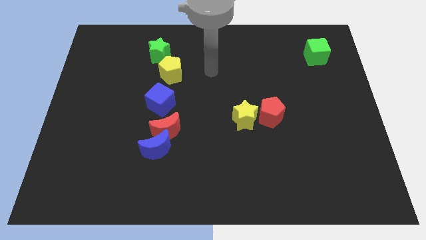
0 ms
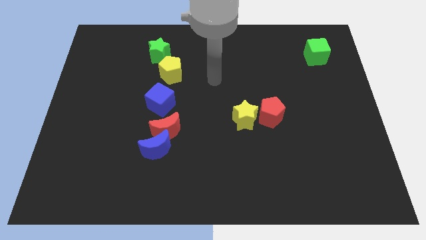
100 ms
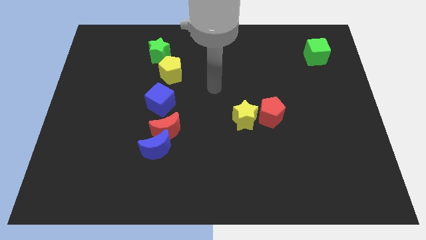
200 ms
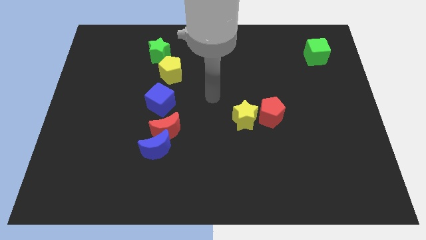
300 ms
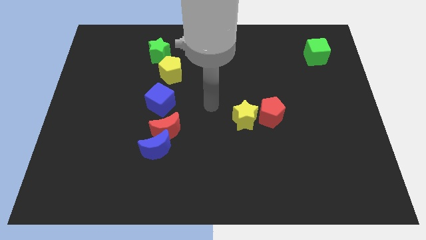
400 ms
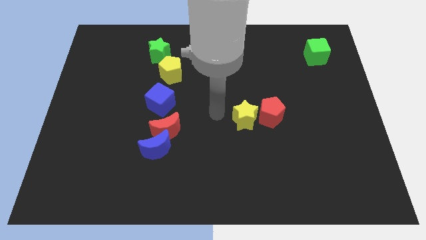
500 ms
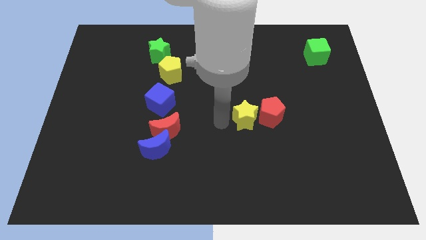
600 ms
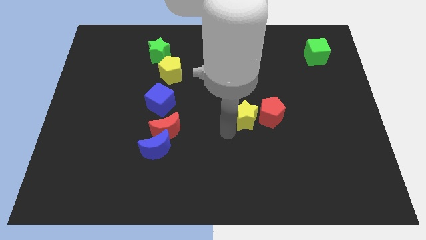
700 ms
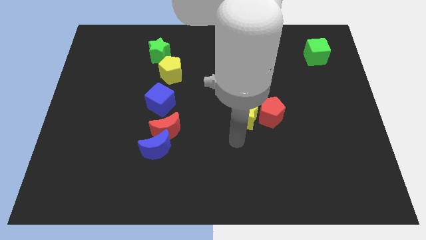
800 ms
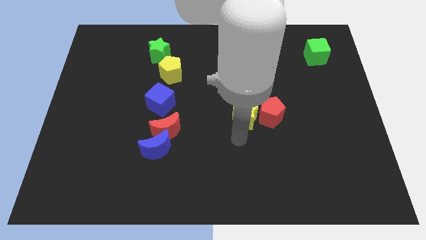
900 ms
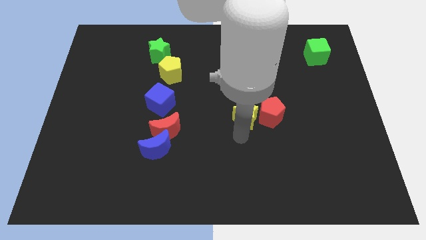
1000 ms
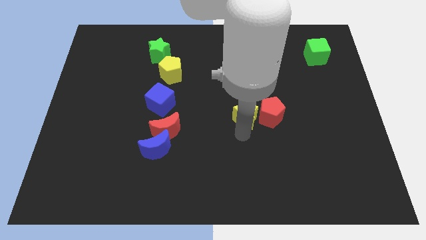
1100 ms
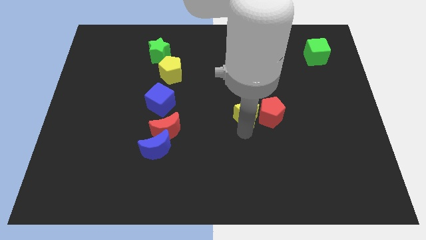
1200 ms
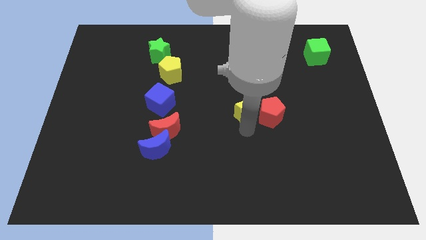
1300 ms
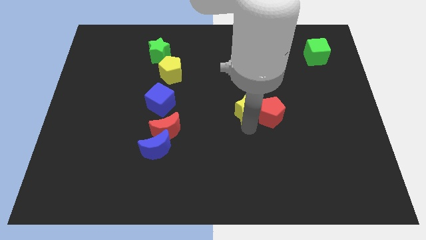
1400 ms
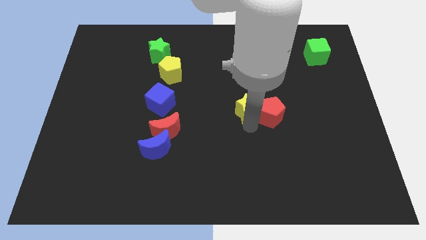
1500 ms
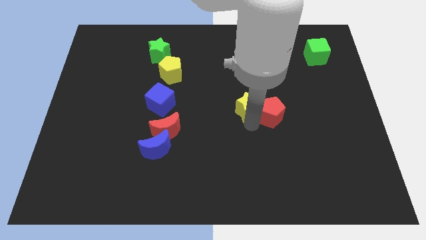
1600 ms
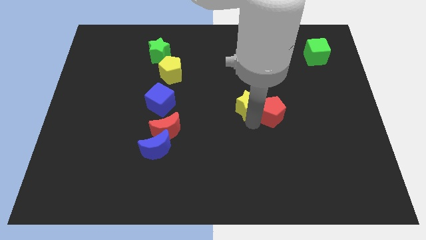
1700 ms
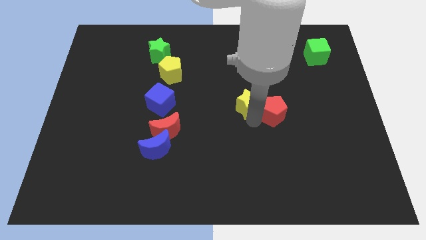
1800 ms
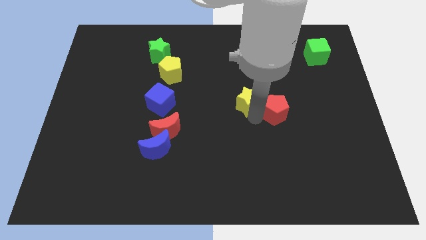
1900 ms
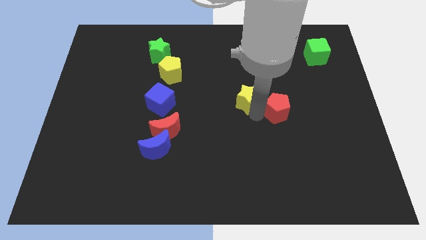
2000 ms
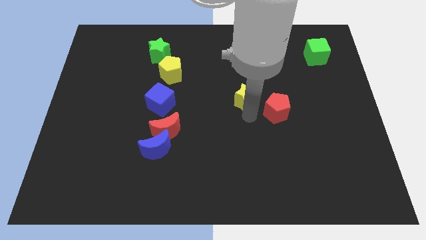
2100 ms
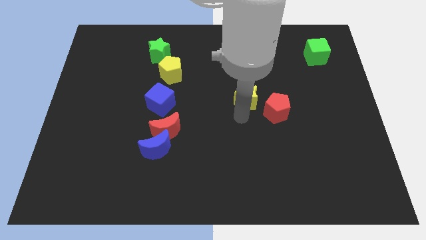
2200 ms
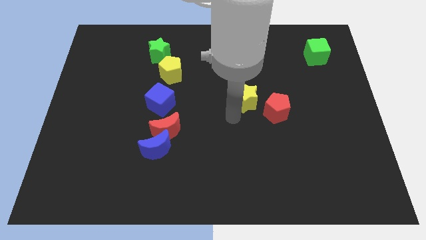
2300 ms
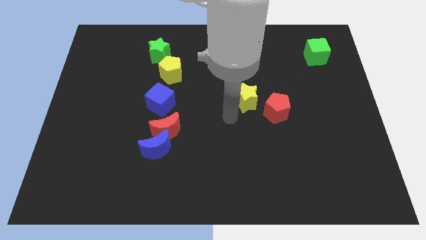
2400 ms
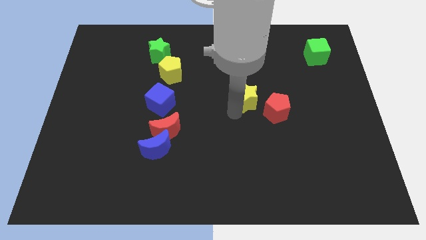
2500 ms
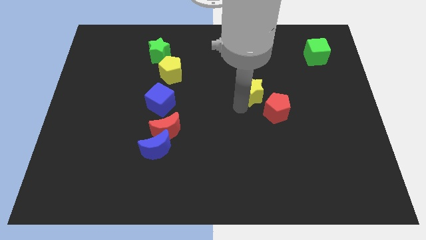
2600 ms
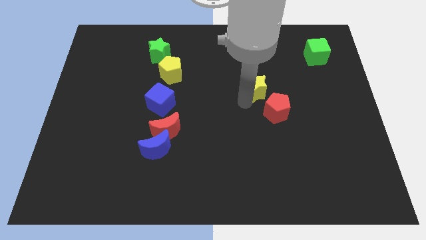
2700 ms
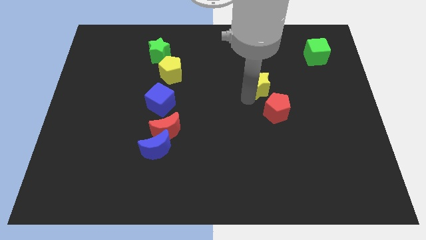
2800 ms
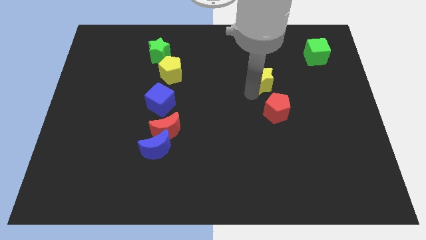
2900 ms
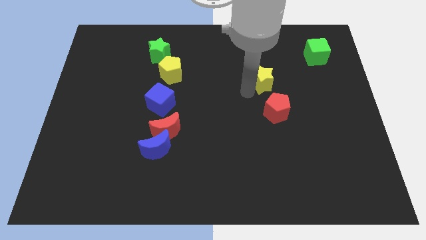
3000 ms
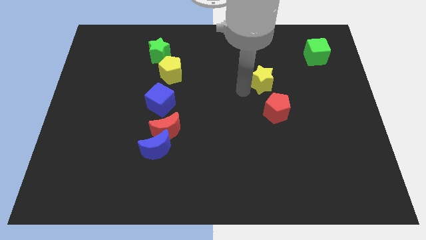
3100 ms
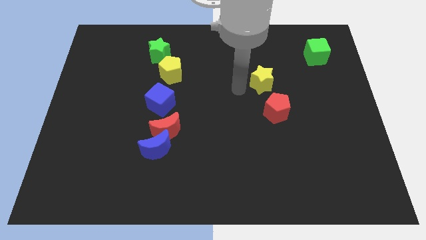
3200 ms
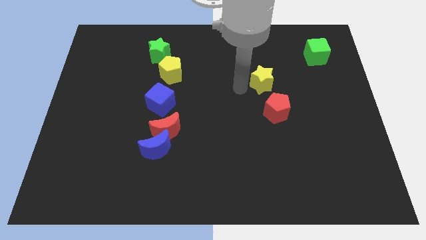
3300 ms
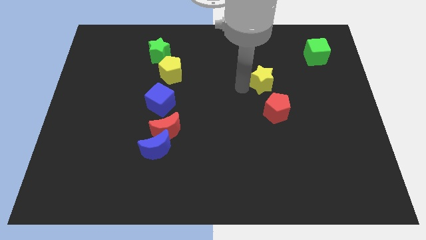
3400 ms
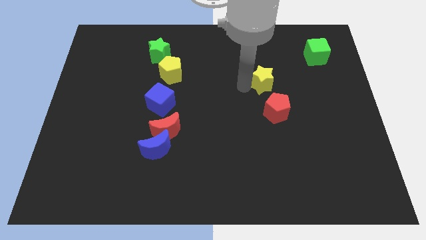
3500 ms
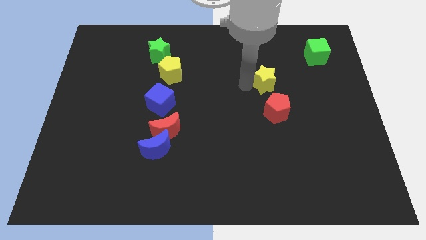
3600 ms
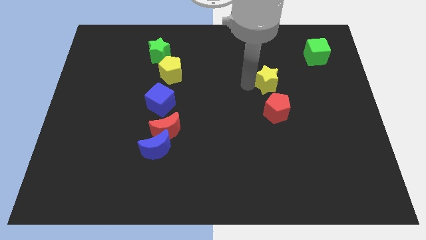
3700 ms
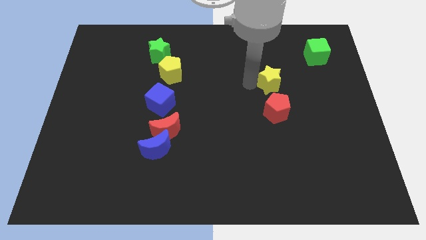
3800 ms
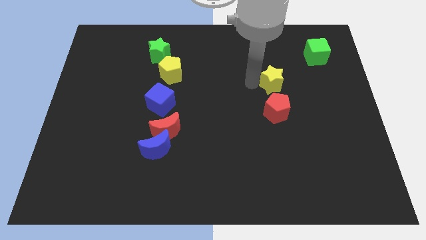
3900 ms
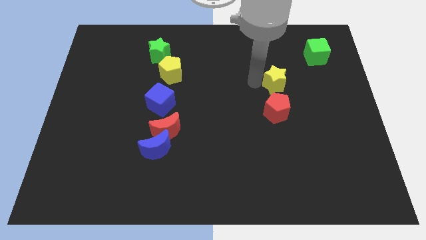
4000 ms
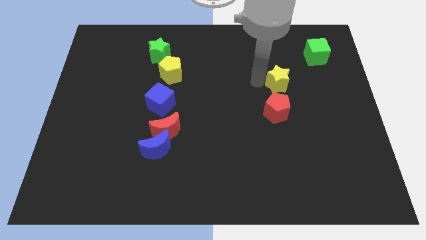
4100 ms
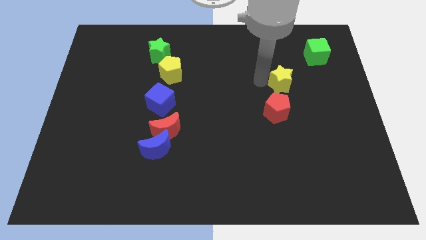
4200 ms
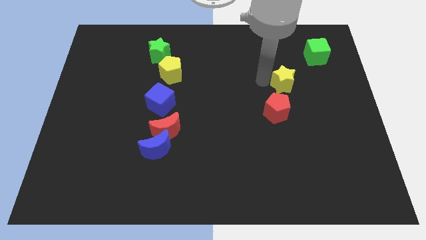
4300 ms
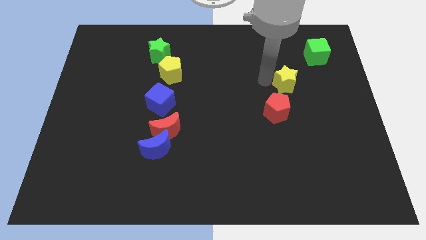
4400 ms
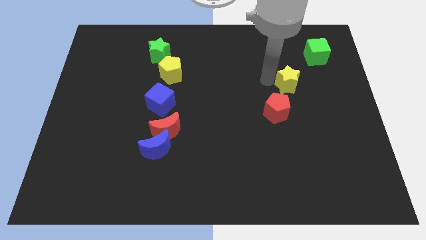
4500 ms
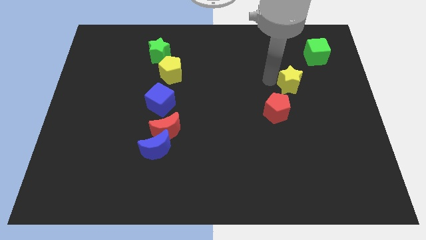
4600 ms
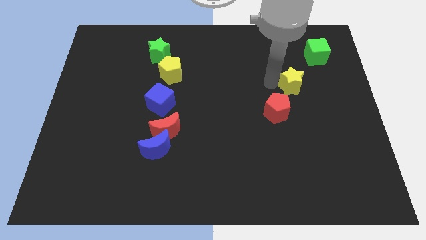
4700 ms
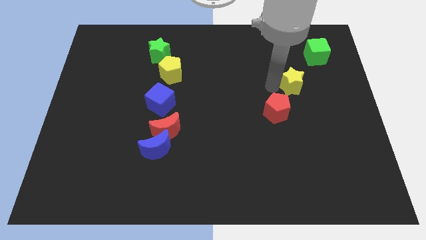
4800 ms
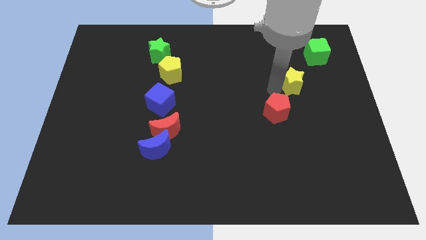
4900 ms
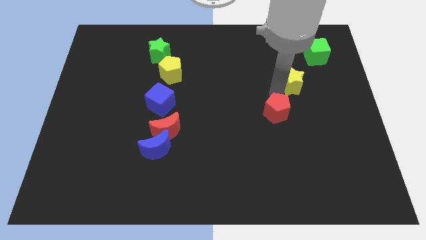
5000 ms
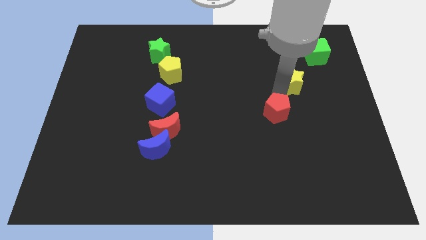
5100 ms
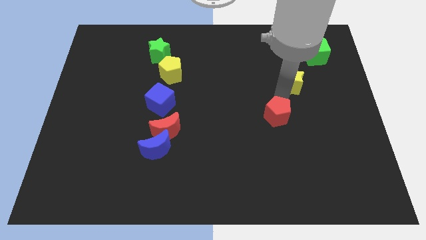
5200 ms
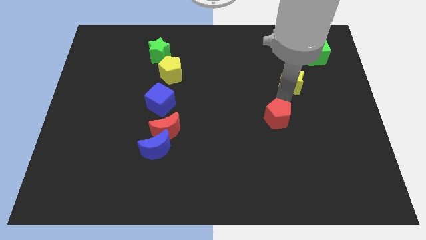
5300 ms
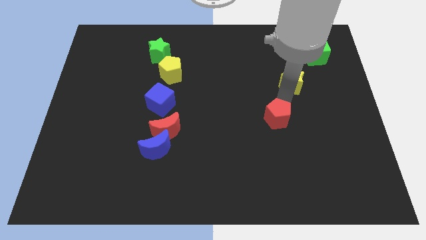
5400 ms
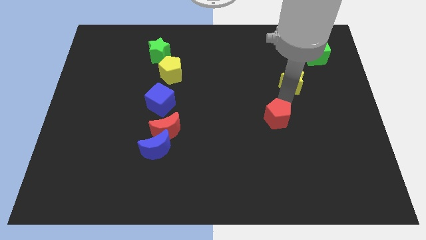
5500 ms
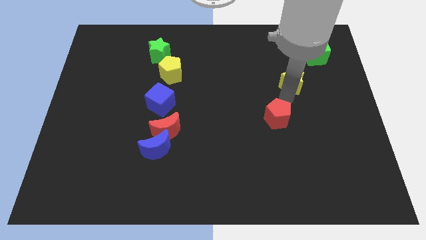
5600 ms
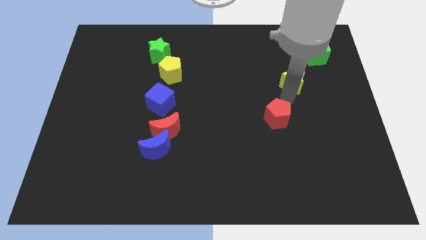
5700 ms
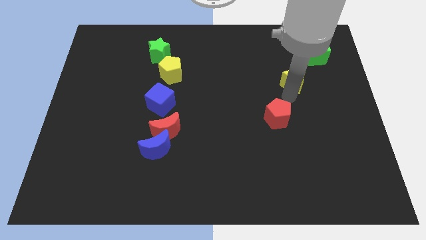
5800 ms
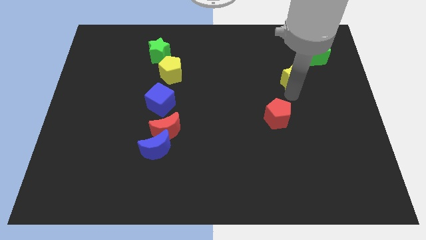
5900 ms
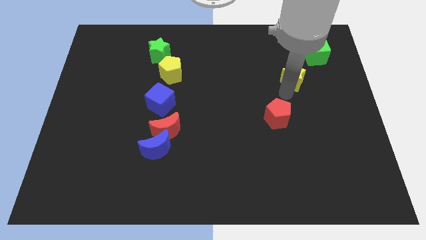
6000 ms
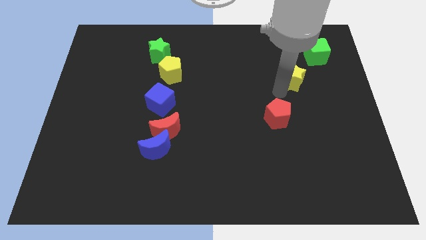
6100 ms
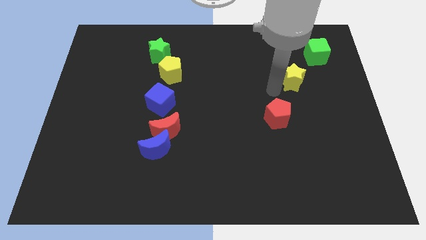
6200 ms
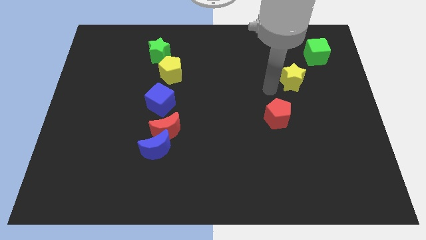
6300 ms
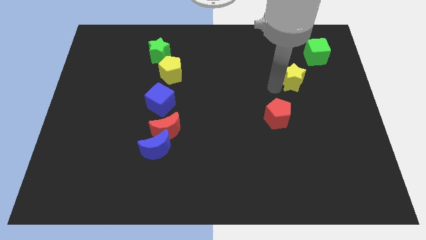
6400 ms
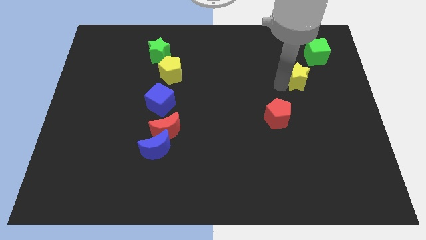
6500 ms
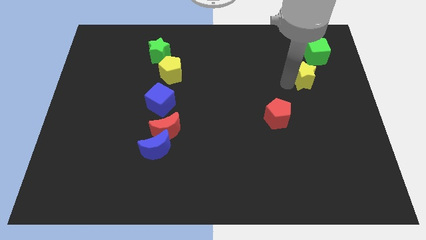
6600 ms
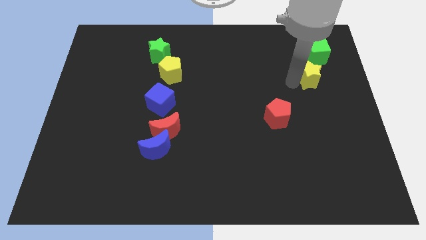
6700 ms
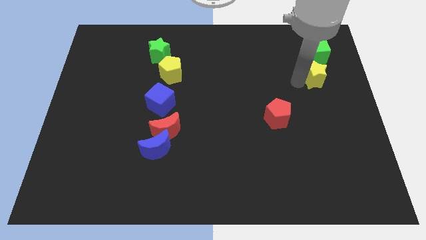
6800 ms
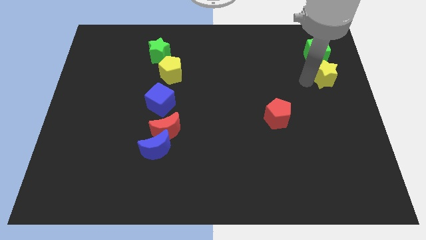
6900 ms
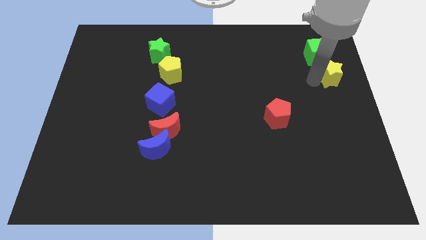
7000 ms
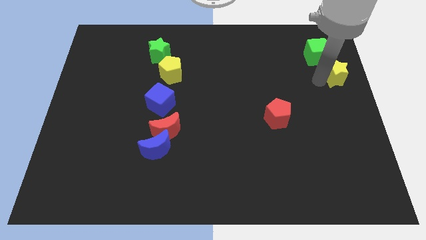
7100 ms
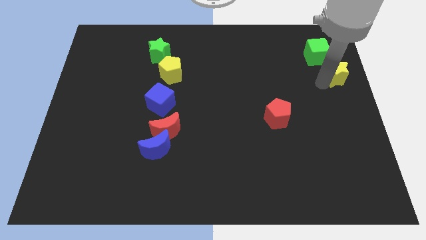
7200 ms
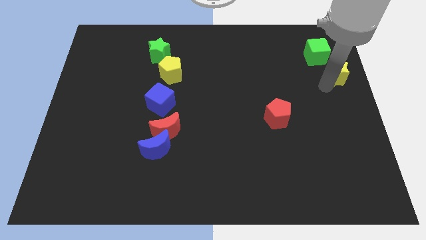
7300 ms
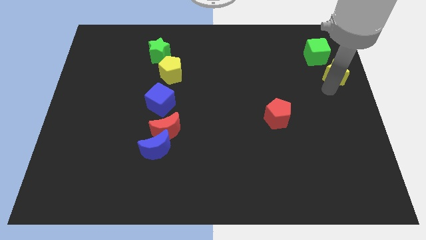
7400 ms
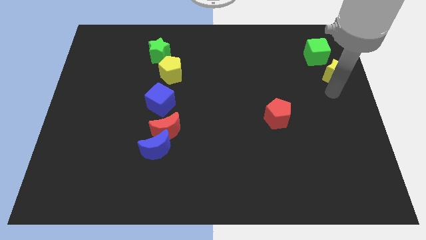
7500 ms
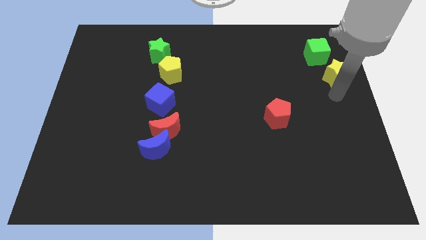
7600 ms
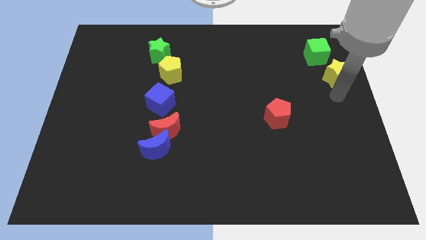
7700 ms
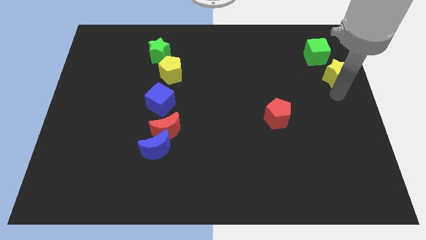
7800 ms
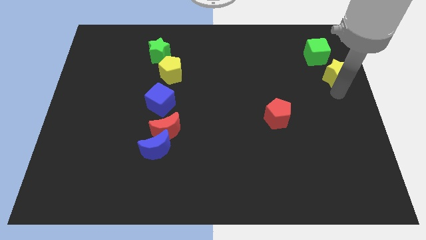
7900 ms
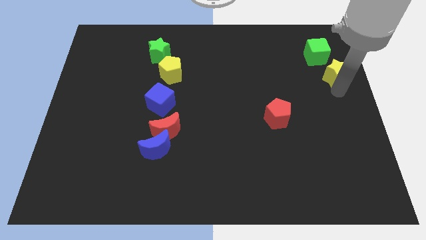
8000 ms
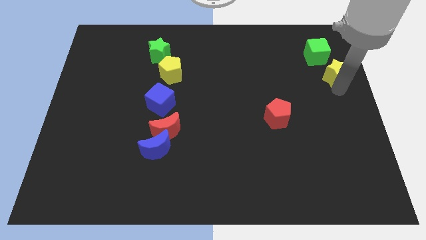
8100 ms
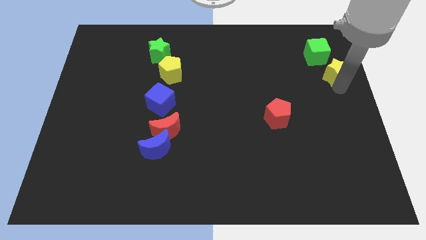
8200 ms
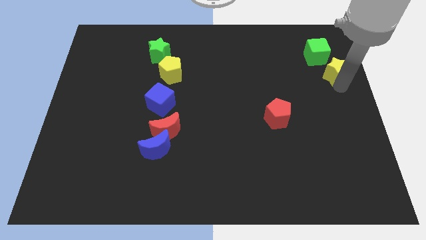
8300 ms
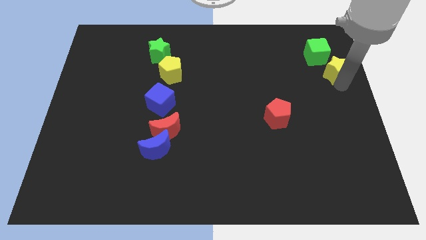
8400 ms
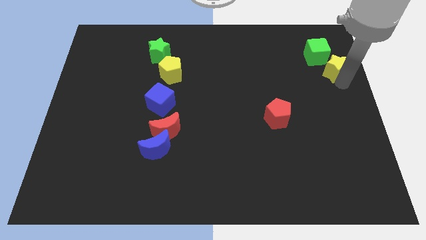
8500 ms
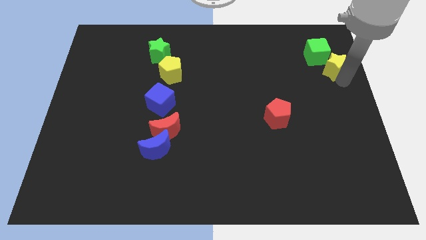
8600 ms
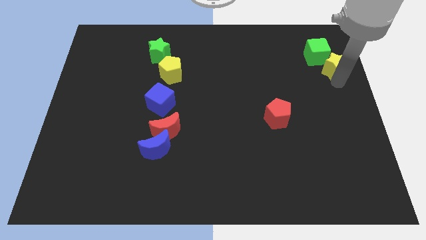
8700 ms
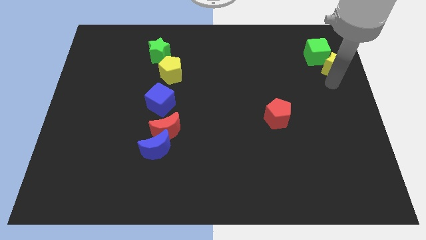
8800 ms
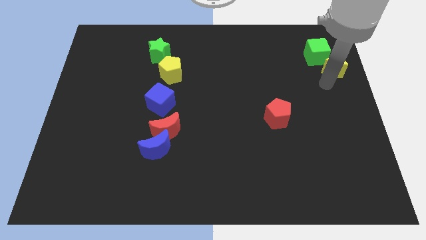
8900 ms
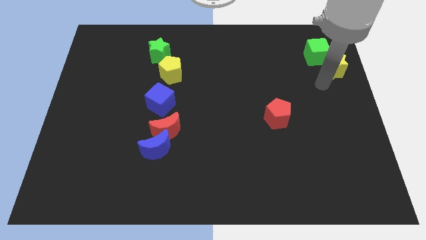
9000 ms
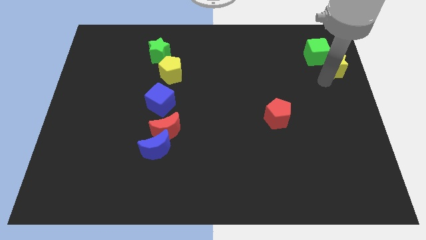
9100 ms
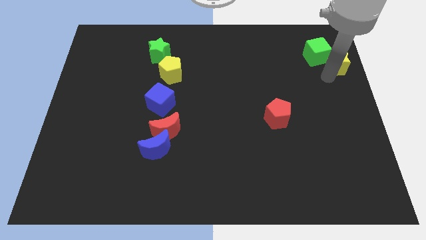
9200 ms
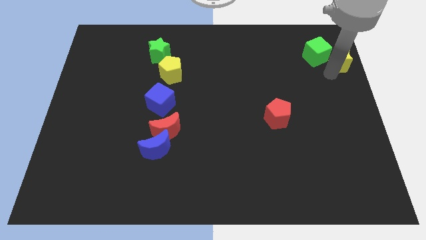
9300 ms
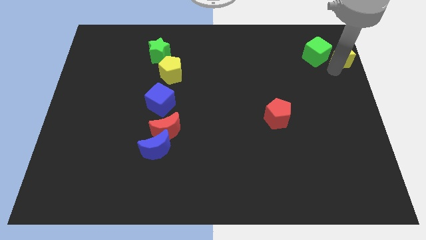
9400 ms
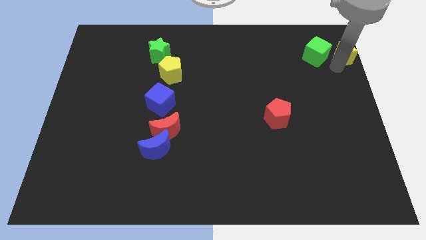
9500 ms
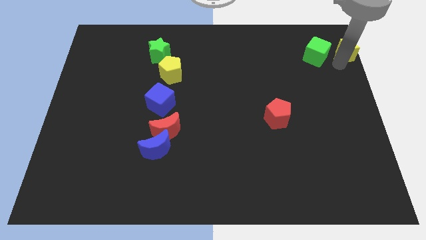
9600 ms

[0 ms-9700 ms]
put the yellow star to the upper right corner
